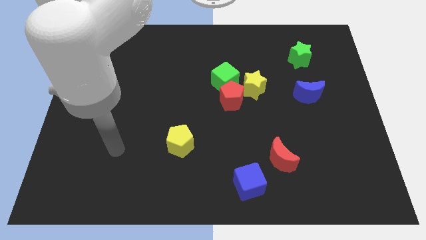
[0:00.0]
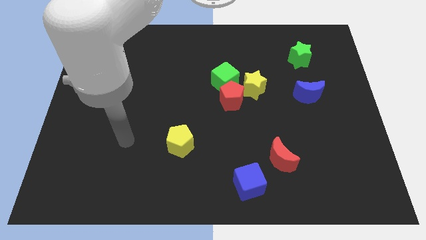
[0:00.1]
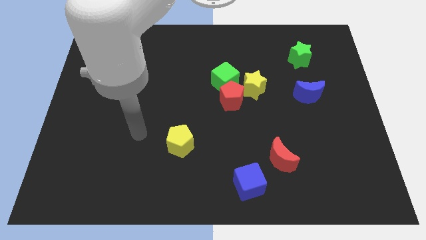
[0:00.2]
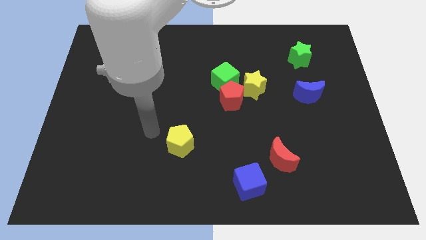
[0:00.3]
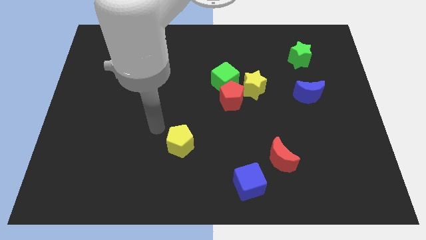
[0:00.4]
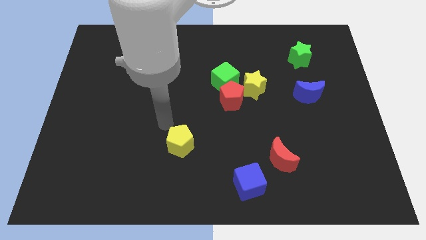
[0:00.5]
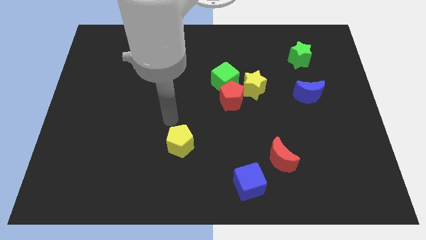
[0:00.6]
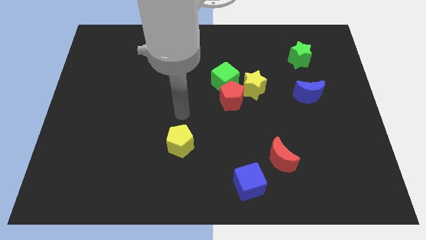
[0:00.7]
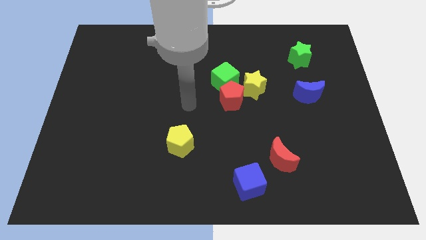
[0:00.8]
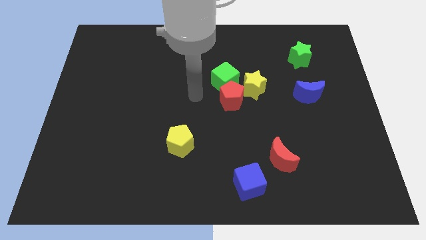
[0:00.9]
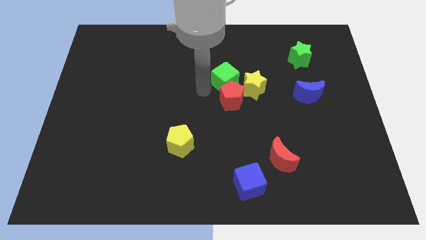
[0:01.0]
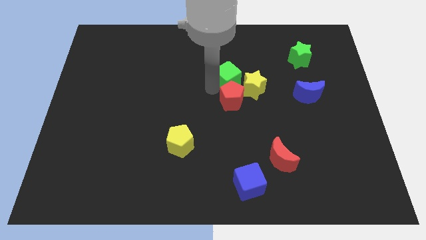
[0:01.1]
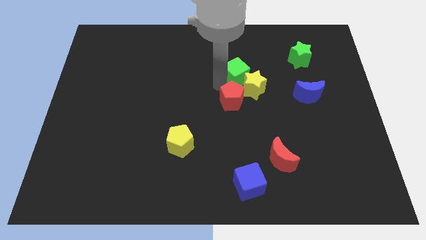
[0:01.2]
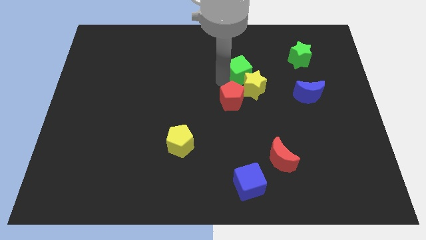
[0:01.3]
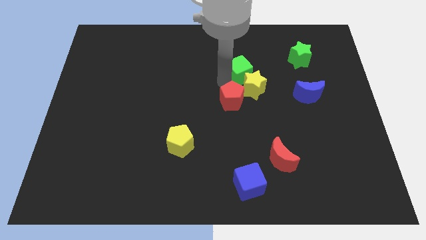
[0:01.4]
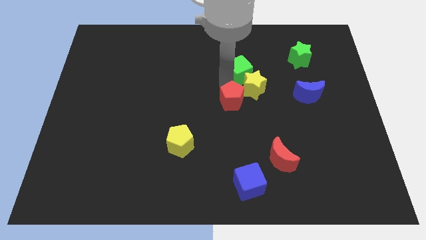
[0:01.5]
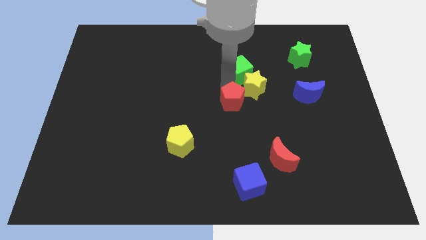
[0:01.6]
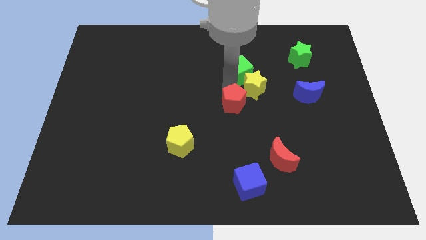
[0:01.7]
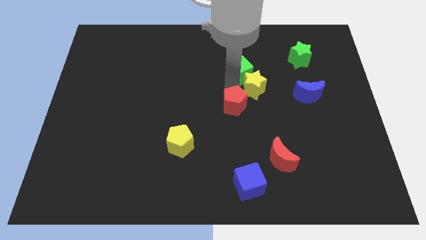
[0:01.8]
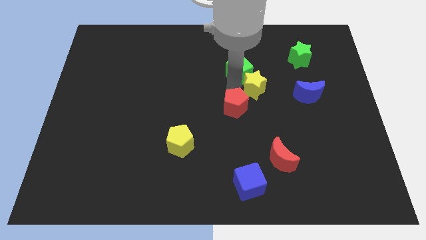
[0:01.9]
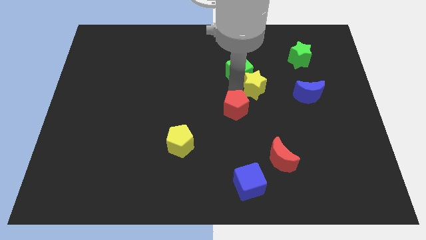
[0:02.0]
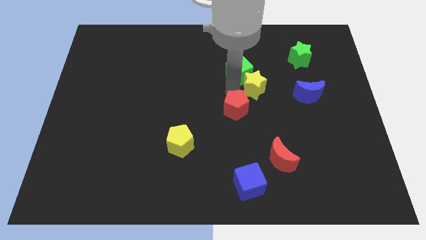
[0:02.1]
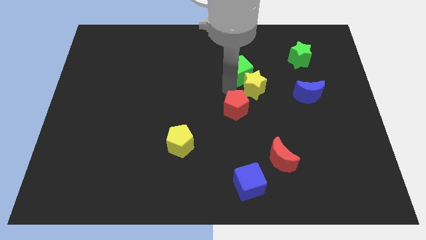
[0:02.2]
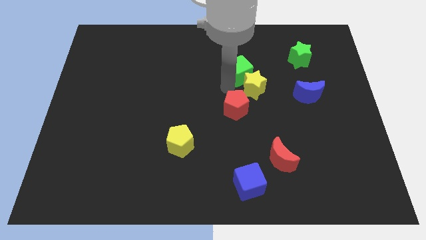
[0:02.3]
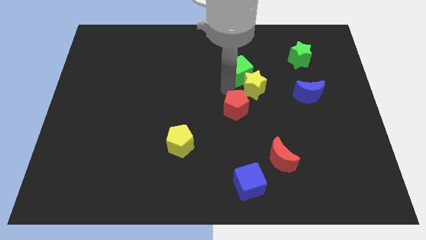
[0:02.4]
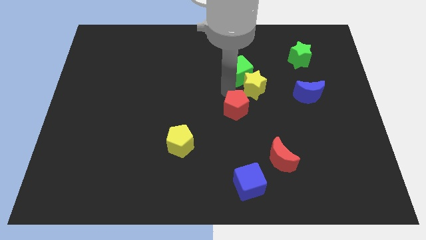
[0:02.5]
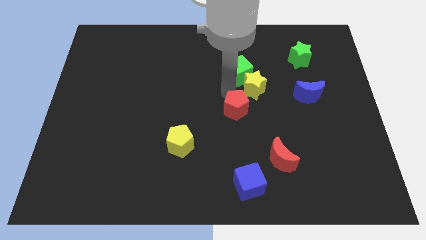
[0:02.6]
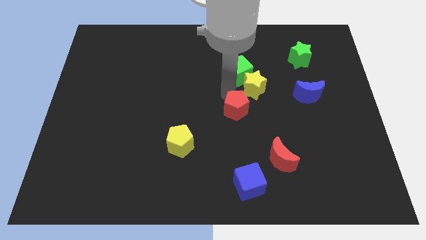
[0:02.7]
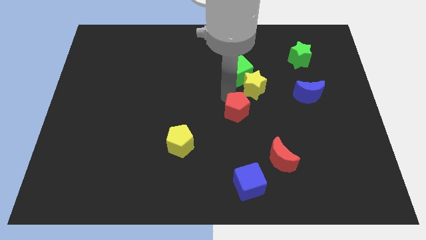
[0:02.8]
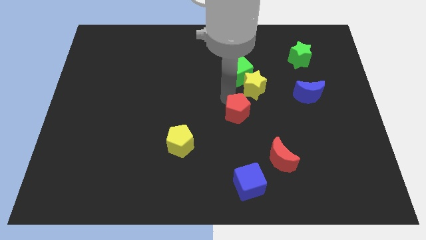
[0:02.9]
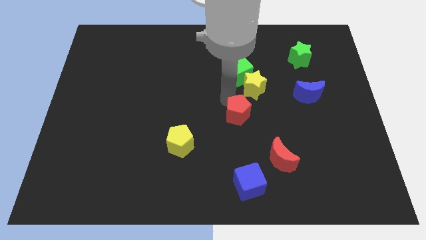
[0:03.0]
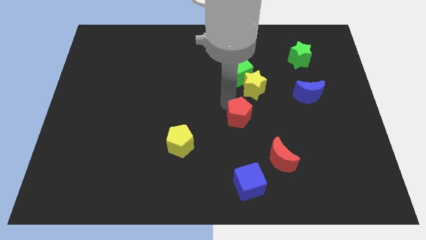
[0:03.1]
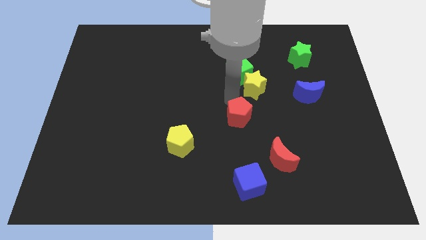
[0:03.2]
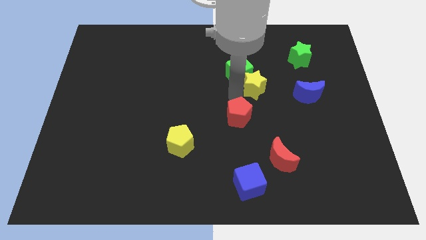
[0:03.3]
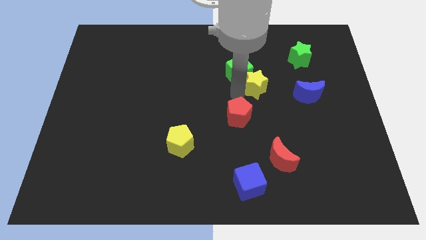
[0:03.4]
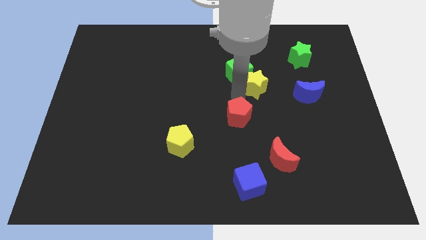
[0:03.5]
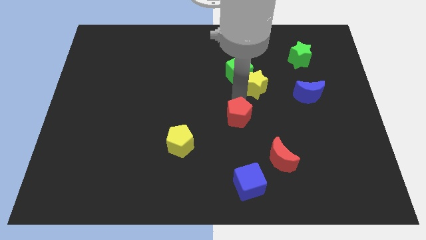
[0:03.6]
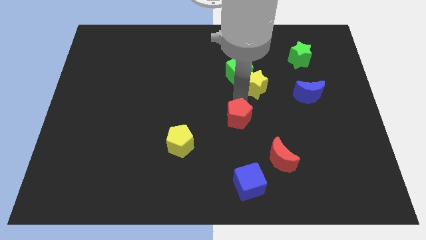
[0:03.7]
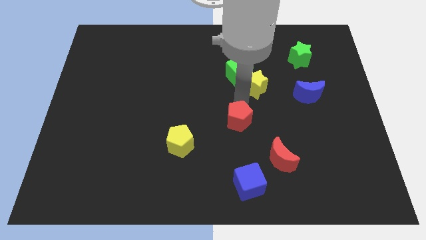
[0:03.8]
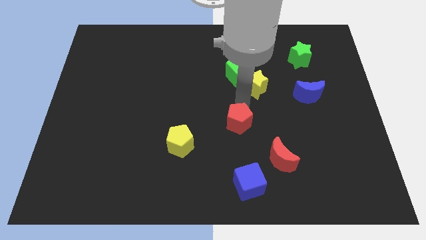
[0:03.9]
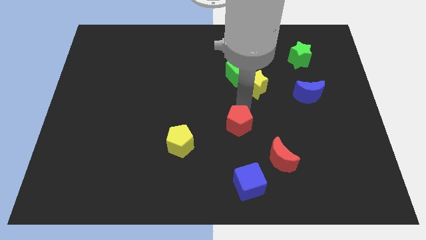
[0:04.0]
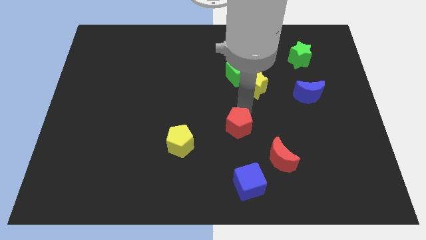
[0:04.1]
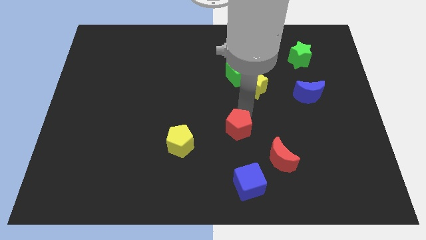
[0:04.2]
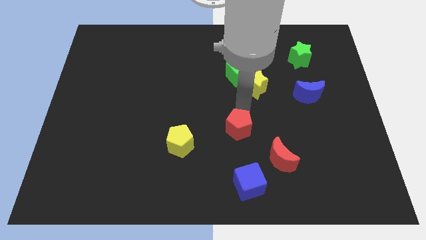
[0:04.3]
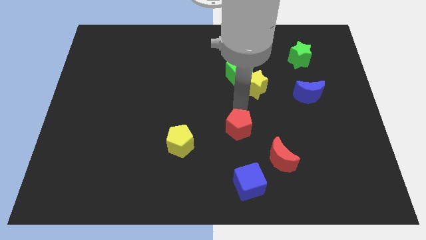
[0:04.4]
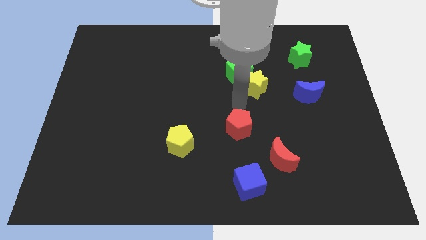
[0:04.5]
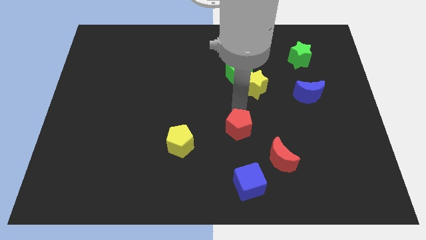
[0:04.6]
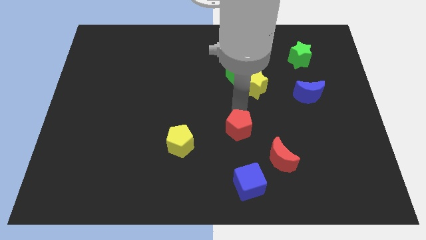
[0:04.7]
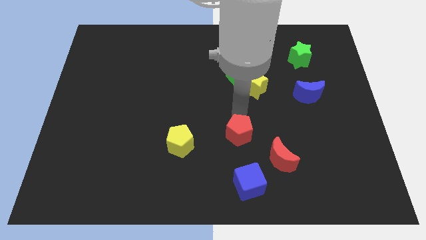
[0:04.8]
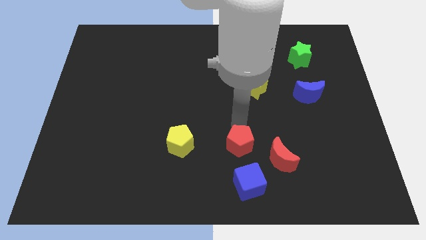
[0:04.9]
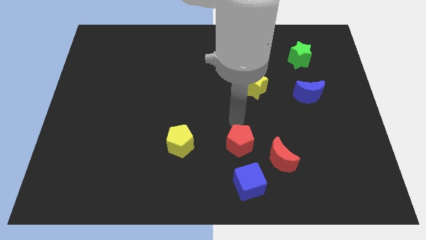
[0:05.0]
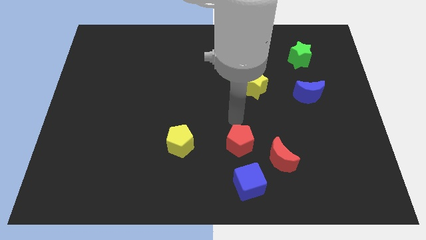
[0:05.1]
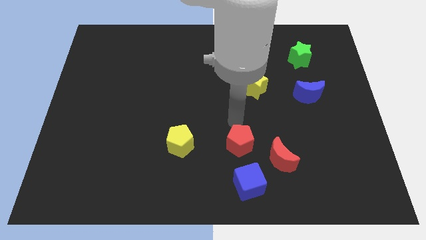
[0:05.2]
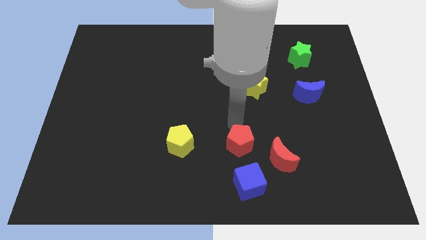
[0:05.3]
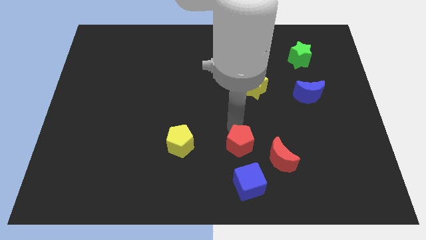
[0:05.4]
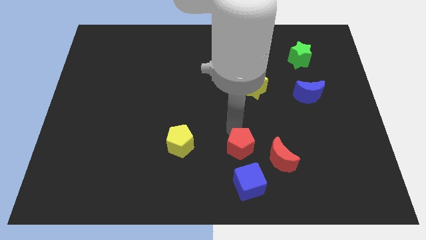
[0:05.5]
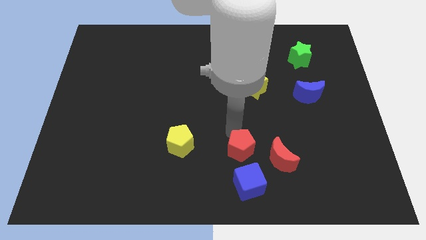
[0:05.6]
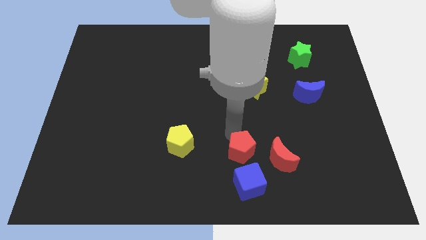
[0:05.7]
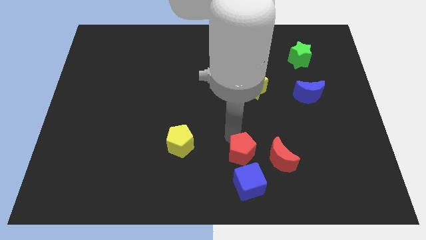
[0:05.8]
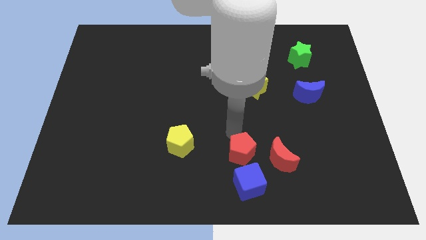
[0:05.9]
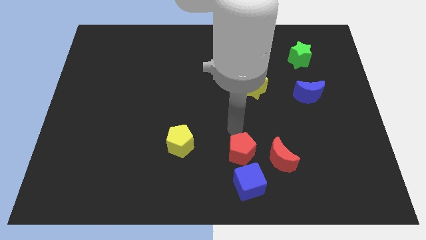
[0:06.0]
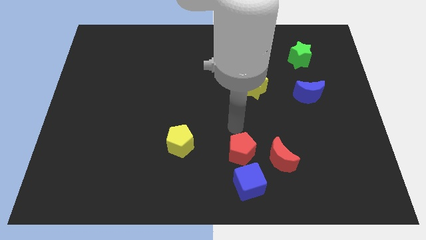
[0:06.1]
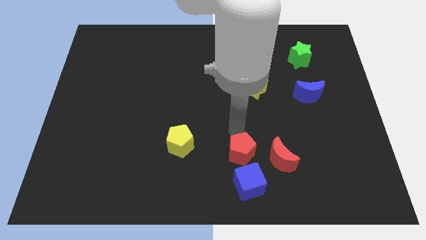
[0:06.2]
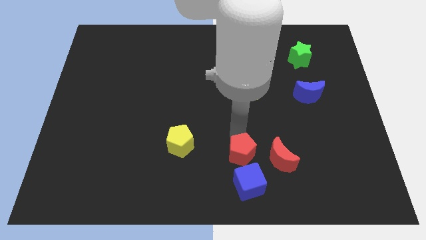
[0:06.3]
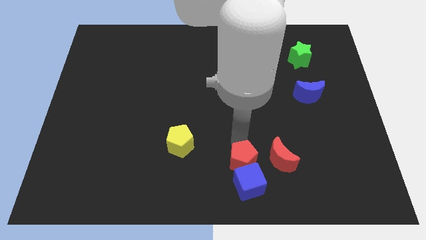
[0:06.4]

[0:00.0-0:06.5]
move the red pentagon to the blue cube

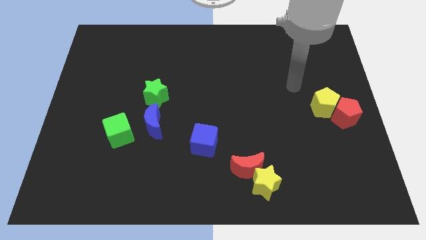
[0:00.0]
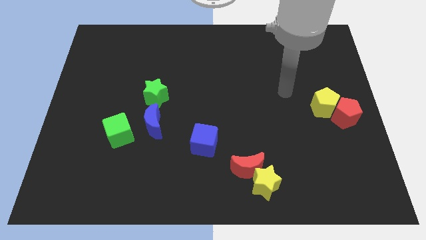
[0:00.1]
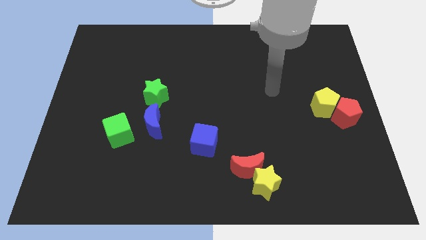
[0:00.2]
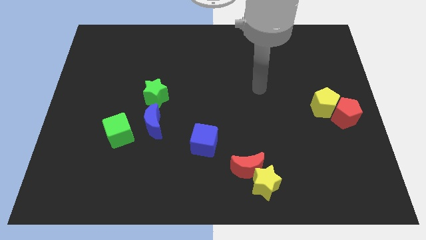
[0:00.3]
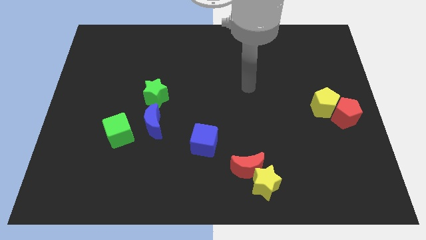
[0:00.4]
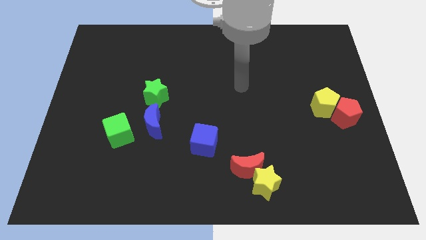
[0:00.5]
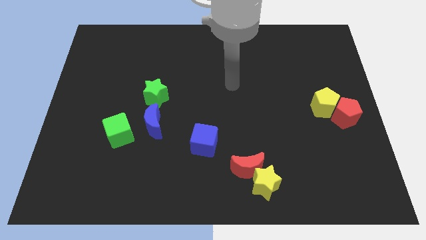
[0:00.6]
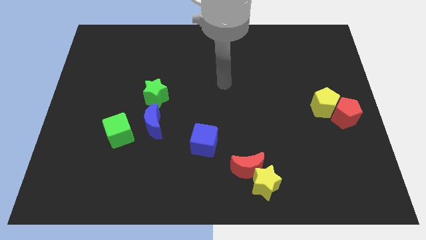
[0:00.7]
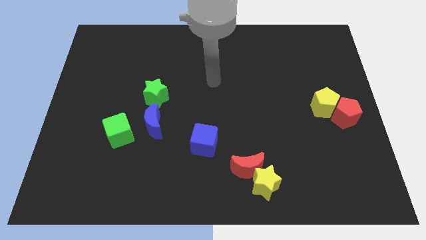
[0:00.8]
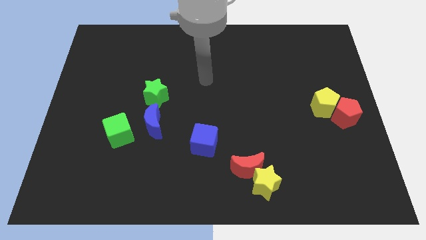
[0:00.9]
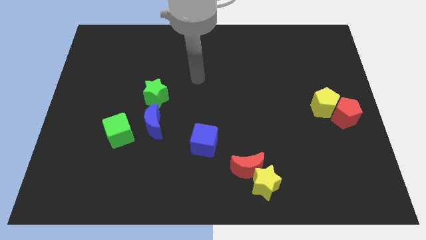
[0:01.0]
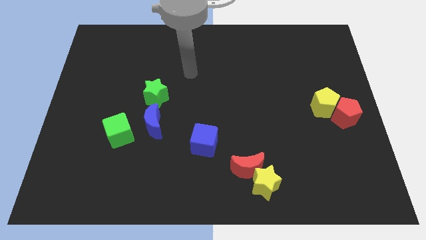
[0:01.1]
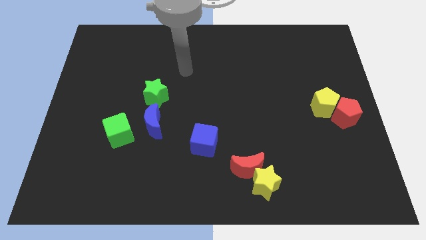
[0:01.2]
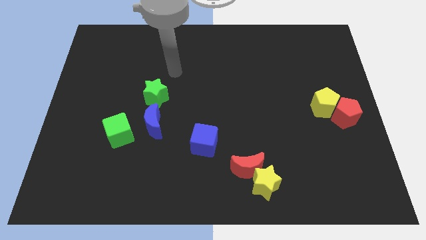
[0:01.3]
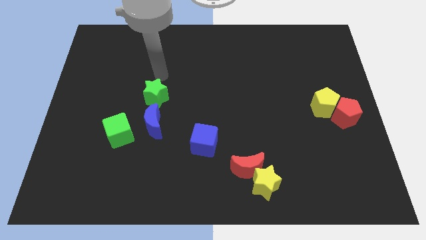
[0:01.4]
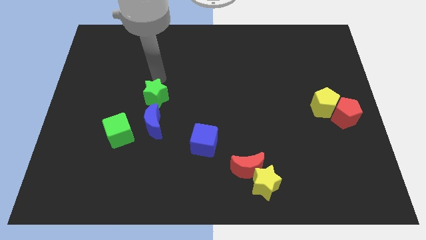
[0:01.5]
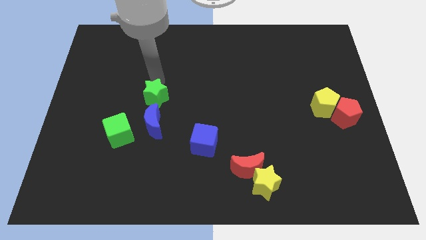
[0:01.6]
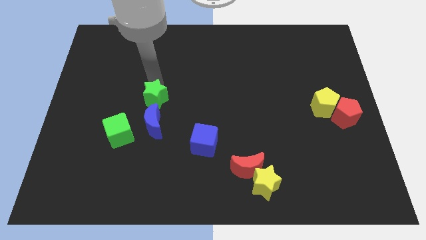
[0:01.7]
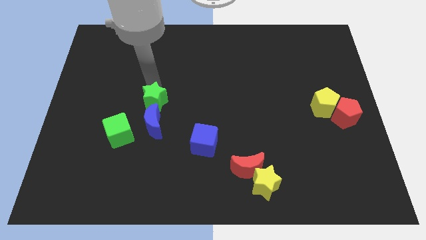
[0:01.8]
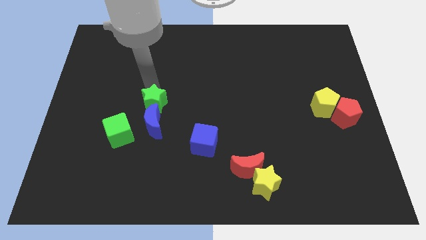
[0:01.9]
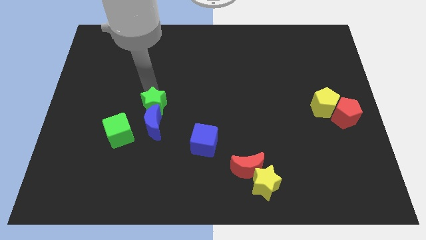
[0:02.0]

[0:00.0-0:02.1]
move the green star close to the blue moon
